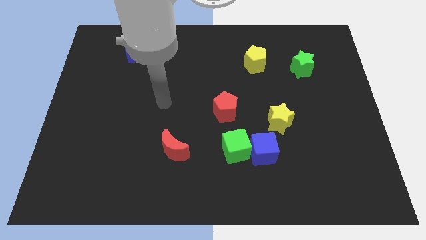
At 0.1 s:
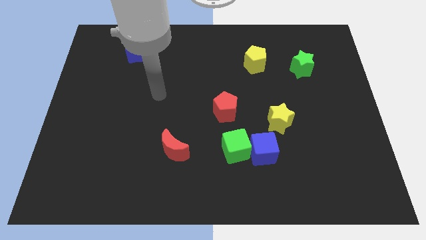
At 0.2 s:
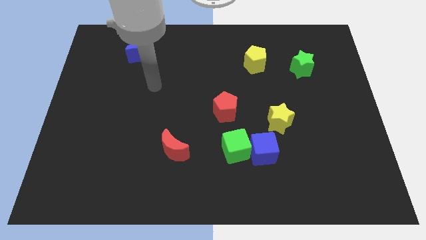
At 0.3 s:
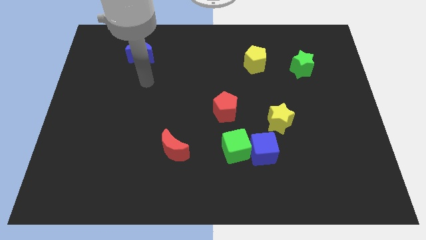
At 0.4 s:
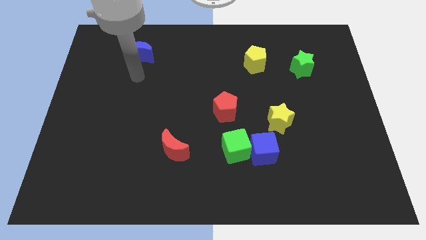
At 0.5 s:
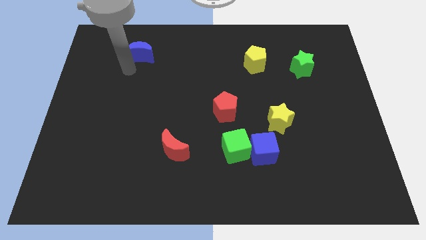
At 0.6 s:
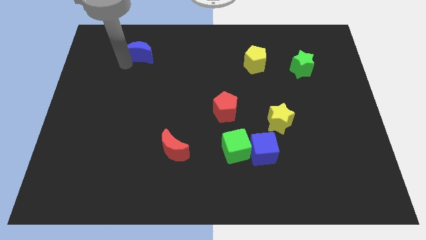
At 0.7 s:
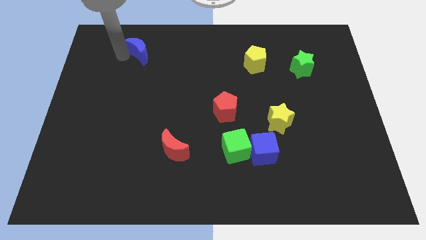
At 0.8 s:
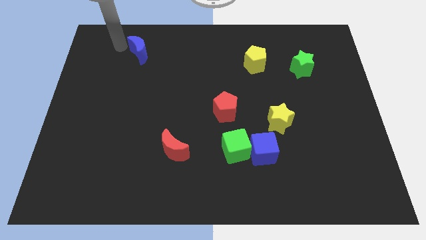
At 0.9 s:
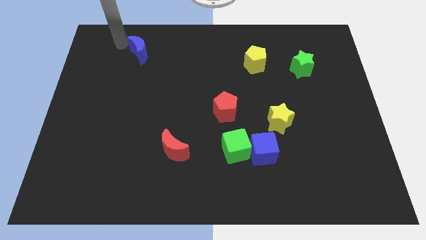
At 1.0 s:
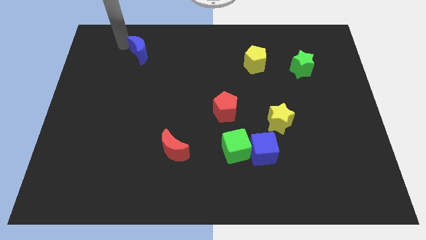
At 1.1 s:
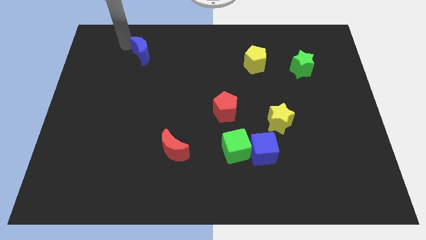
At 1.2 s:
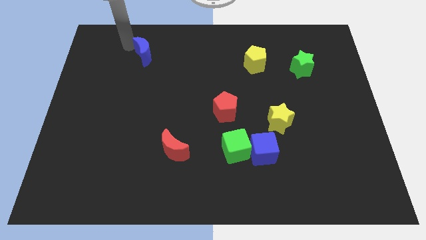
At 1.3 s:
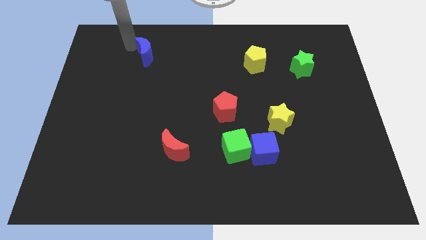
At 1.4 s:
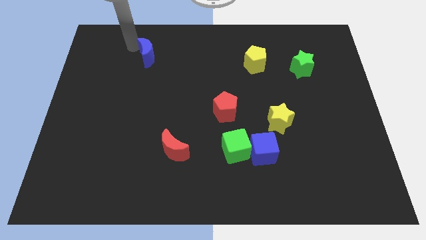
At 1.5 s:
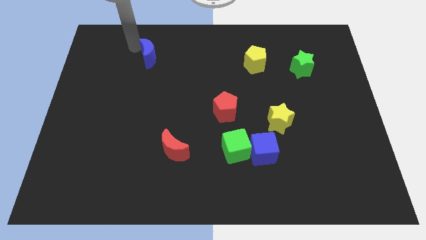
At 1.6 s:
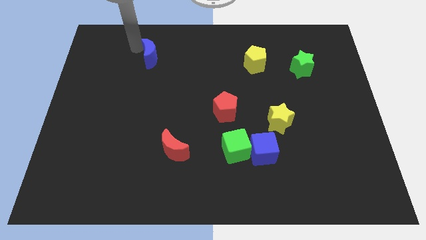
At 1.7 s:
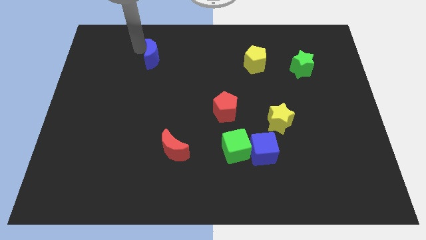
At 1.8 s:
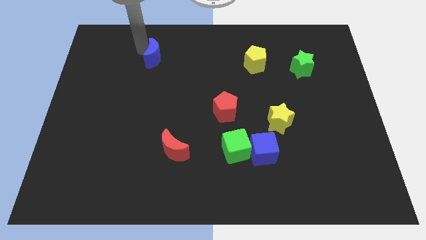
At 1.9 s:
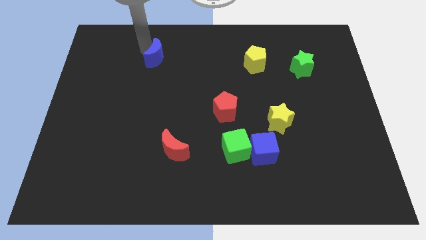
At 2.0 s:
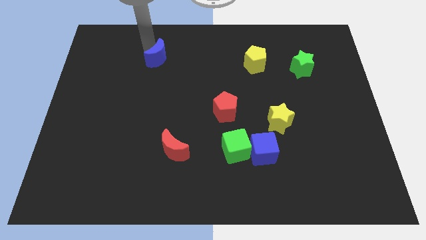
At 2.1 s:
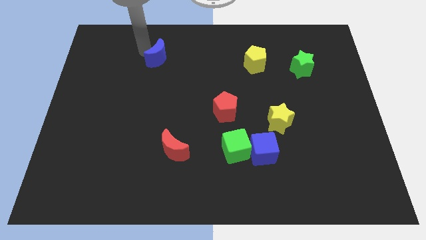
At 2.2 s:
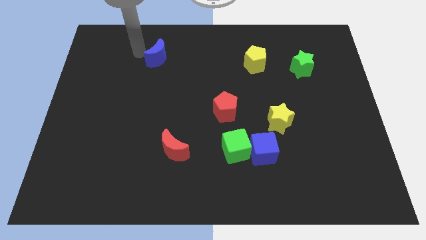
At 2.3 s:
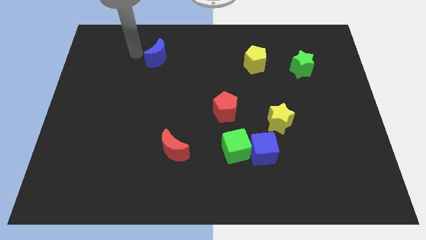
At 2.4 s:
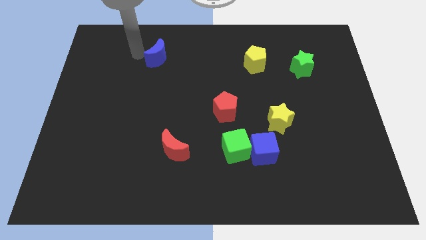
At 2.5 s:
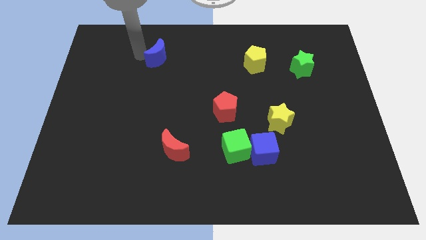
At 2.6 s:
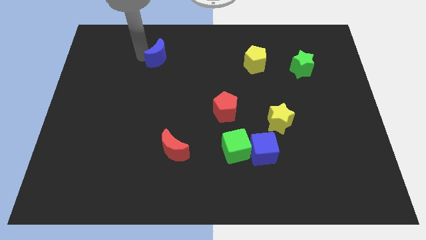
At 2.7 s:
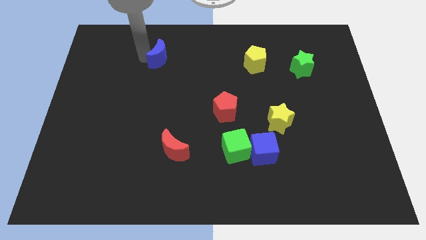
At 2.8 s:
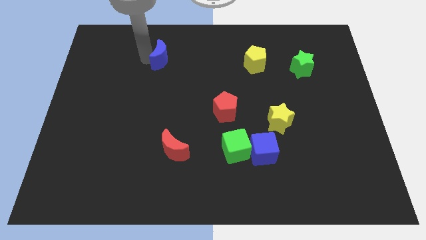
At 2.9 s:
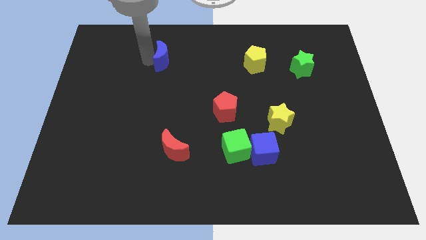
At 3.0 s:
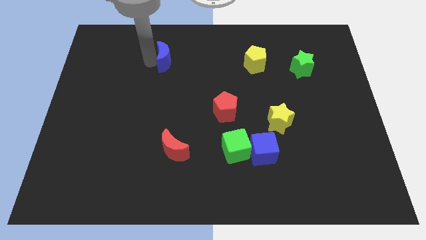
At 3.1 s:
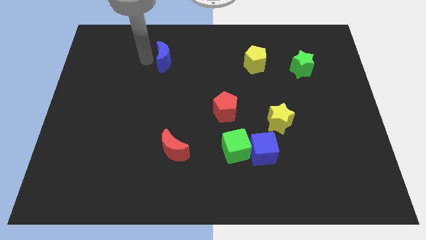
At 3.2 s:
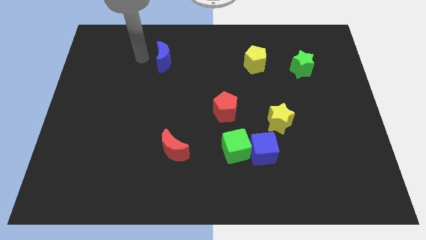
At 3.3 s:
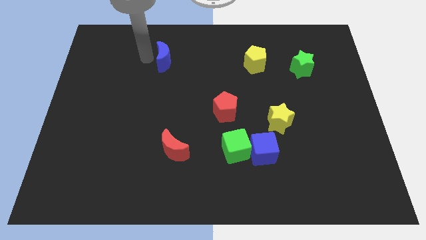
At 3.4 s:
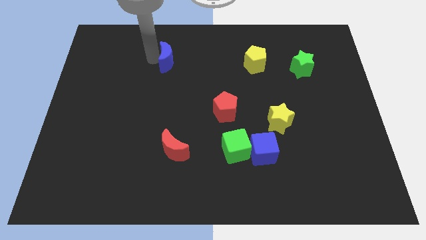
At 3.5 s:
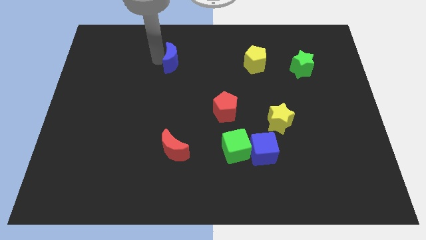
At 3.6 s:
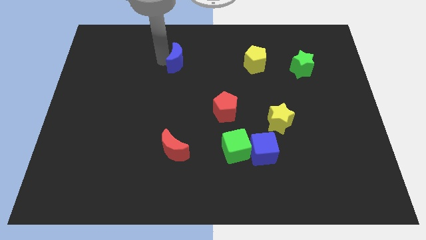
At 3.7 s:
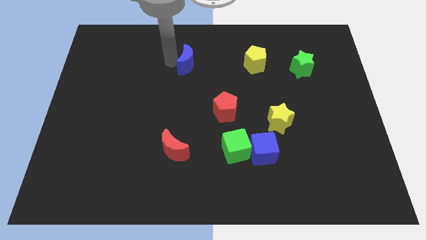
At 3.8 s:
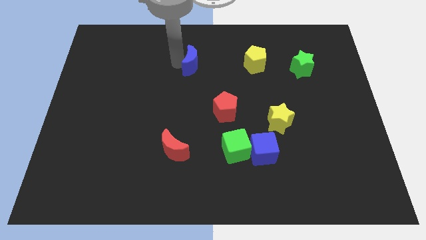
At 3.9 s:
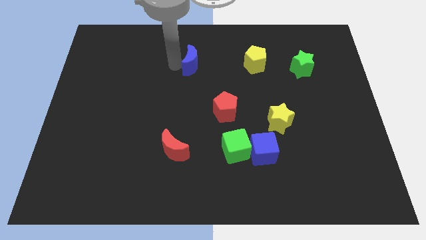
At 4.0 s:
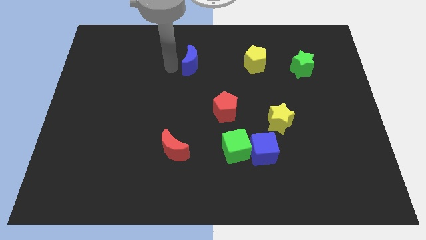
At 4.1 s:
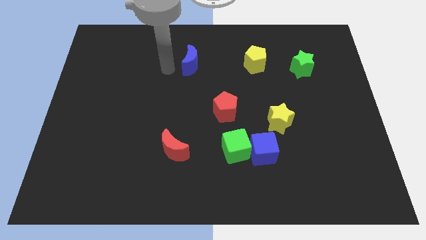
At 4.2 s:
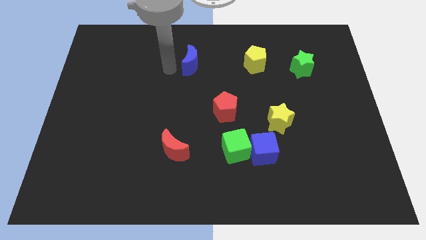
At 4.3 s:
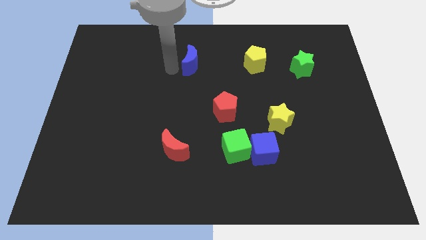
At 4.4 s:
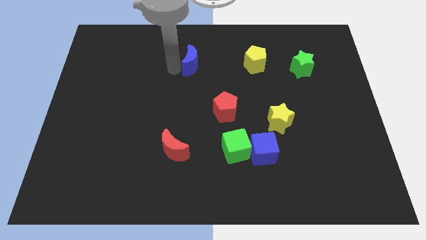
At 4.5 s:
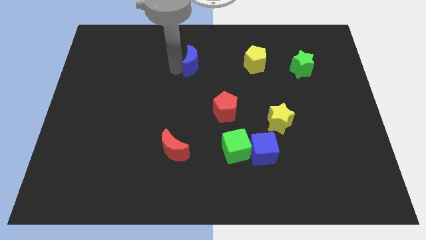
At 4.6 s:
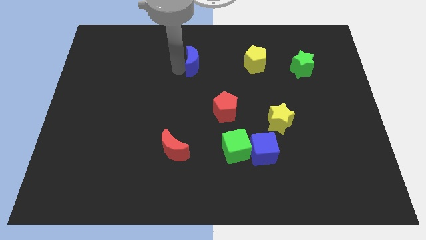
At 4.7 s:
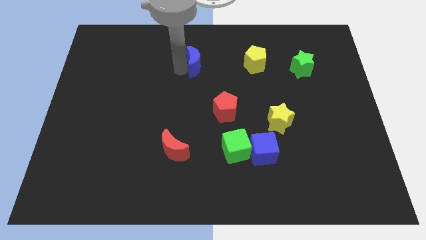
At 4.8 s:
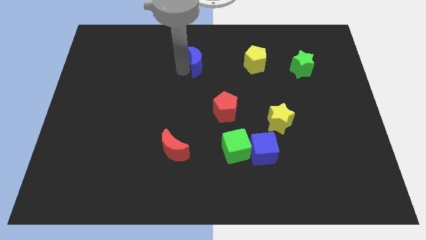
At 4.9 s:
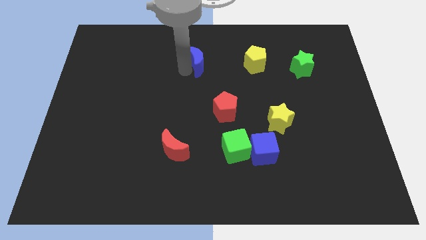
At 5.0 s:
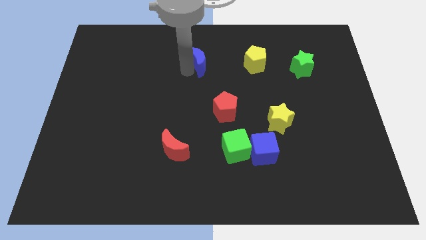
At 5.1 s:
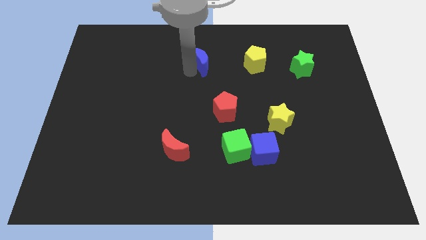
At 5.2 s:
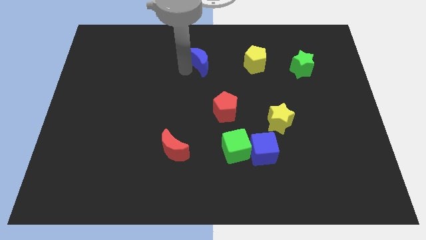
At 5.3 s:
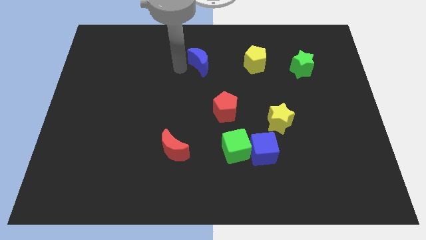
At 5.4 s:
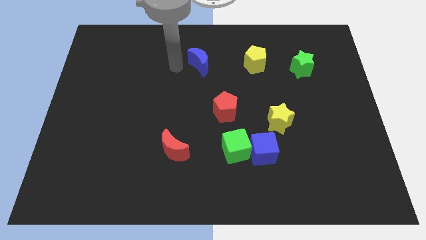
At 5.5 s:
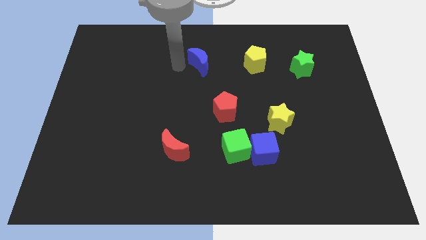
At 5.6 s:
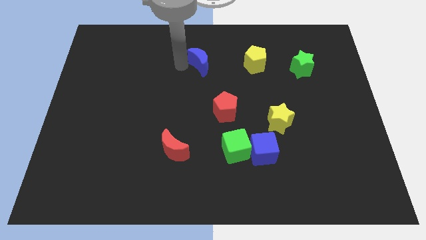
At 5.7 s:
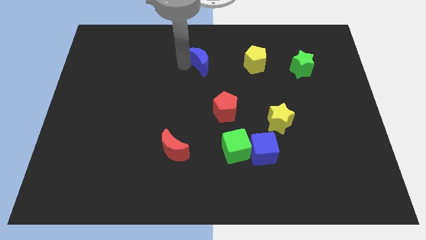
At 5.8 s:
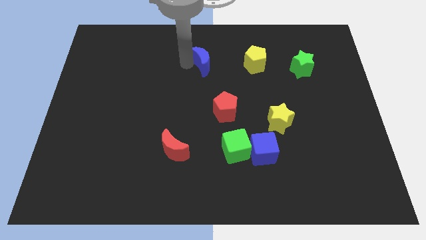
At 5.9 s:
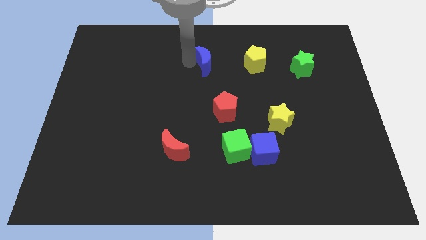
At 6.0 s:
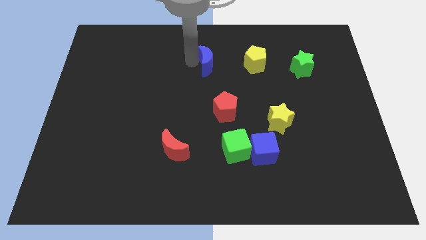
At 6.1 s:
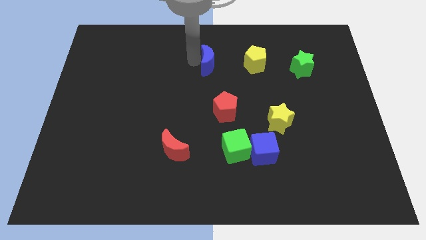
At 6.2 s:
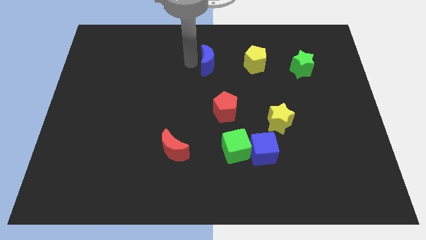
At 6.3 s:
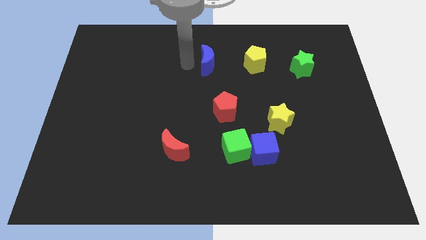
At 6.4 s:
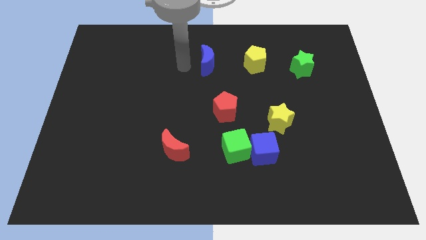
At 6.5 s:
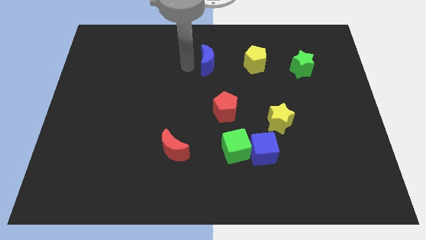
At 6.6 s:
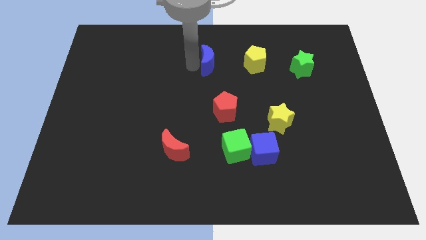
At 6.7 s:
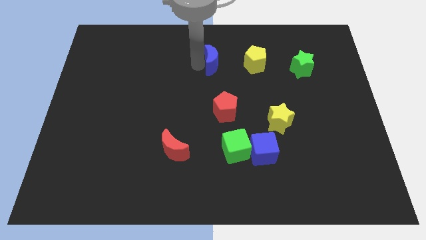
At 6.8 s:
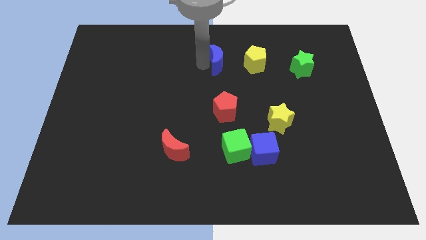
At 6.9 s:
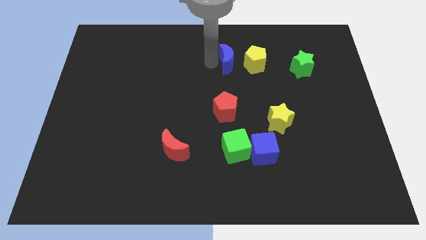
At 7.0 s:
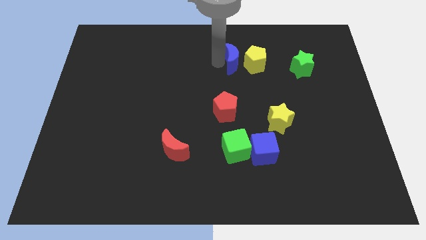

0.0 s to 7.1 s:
push the blue moon next to the yellow pentagon

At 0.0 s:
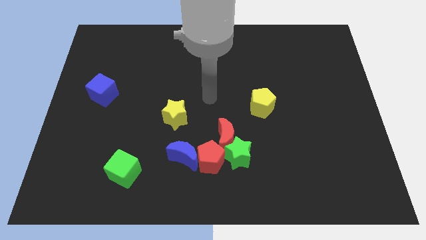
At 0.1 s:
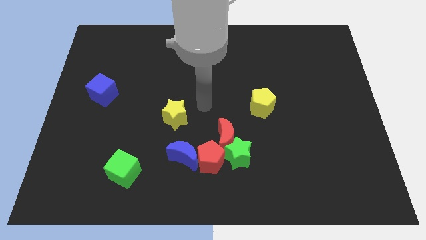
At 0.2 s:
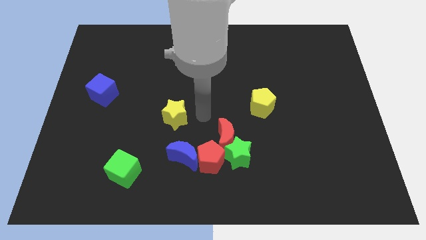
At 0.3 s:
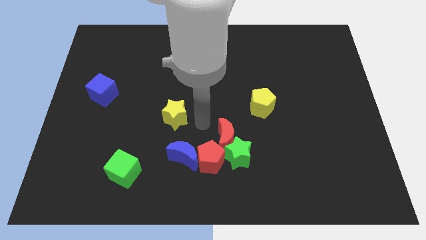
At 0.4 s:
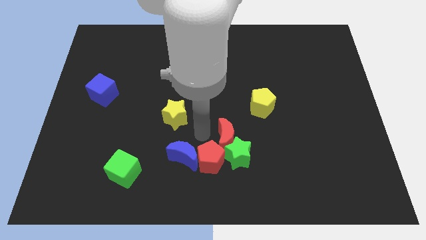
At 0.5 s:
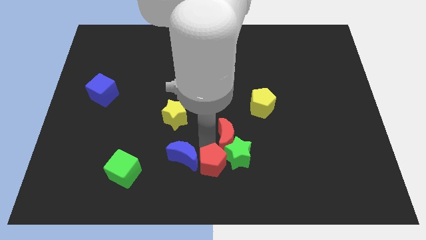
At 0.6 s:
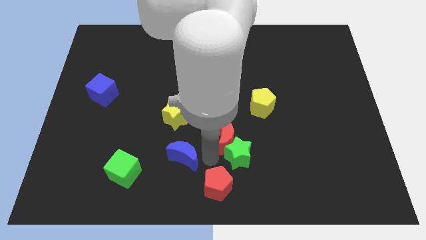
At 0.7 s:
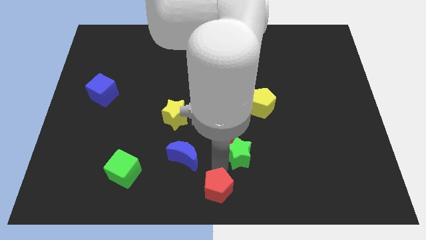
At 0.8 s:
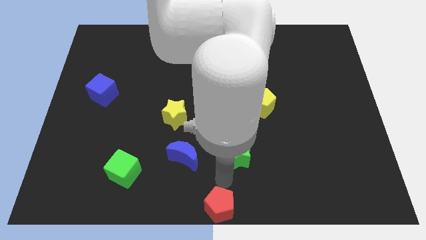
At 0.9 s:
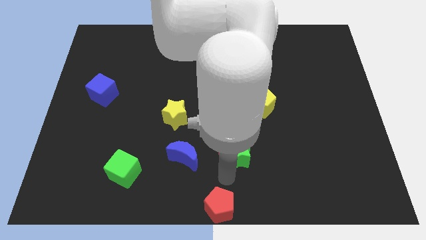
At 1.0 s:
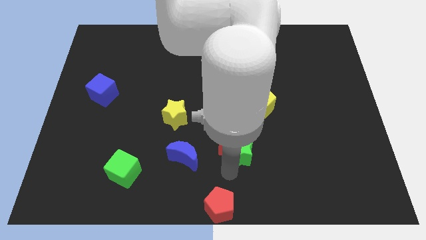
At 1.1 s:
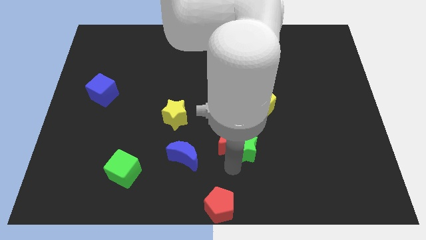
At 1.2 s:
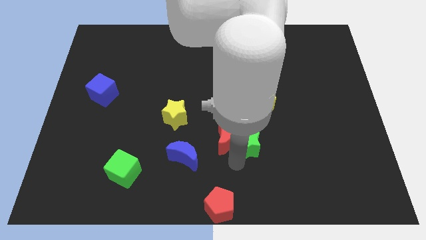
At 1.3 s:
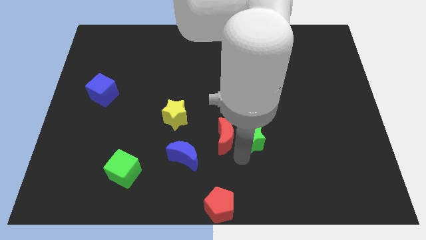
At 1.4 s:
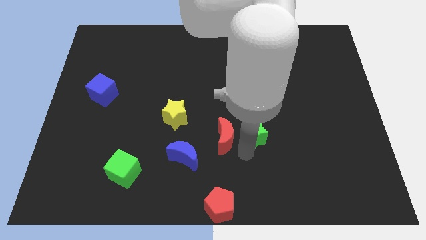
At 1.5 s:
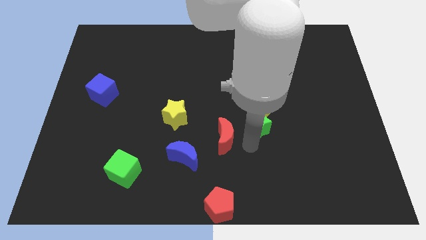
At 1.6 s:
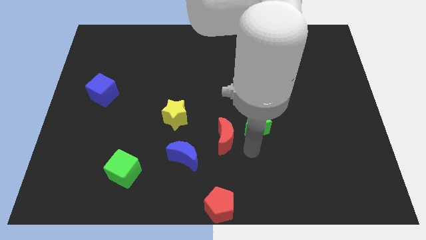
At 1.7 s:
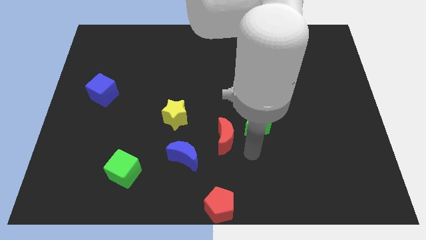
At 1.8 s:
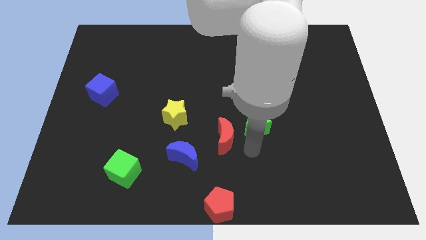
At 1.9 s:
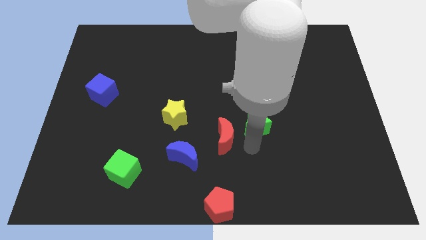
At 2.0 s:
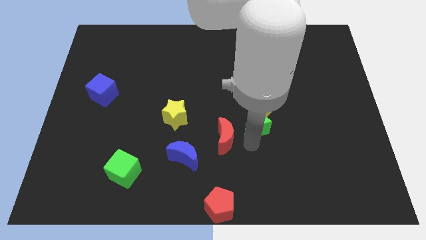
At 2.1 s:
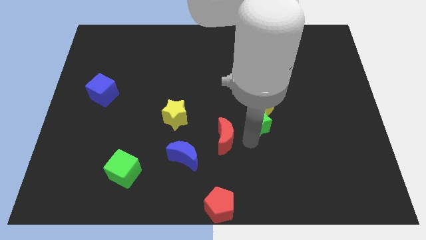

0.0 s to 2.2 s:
put the green star to the yellow pentagon
